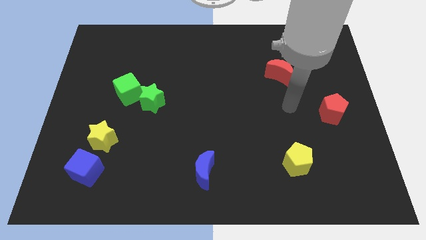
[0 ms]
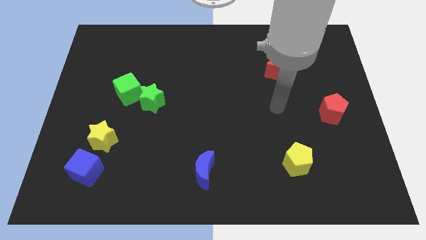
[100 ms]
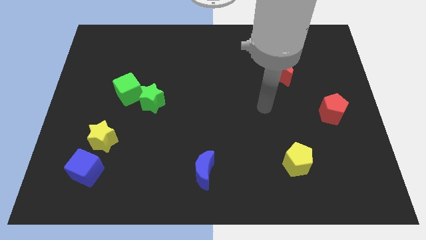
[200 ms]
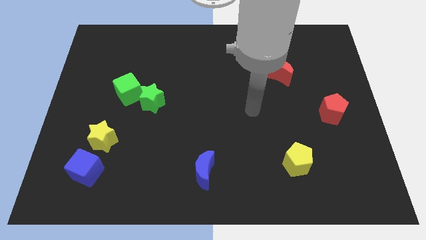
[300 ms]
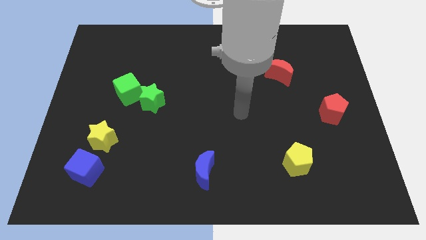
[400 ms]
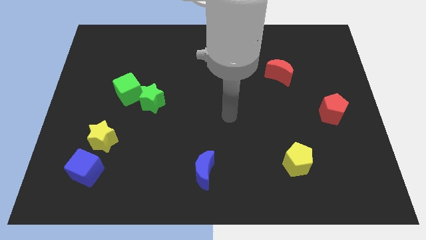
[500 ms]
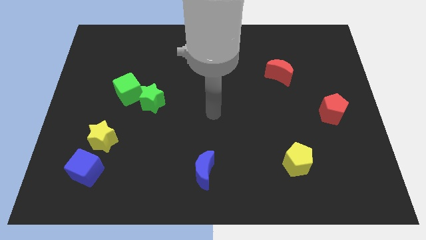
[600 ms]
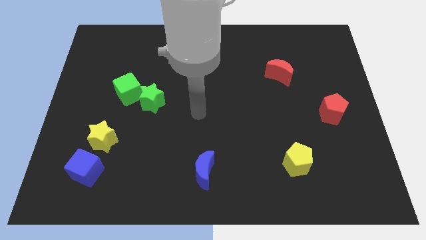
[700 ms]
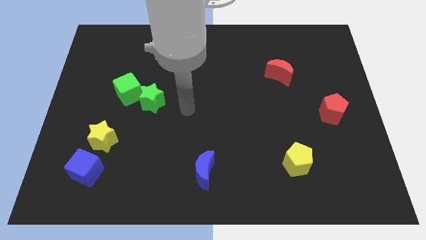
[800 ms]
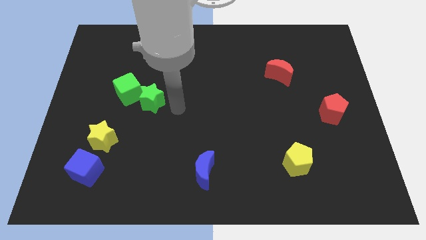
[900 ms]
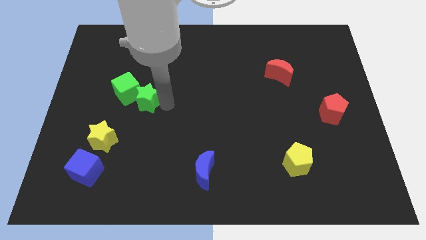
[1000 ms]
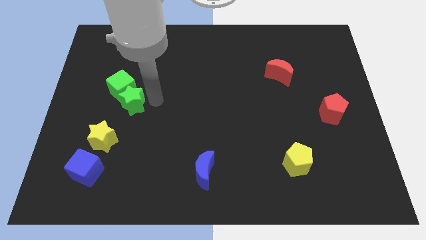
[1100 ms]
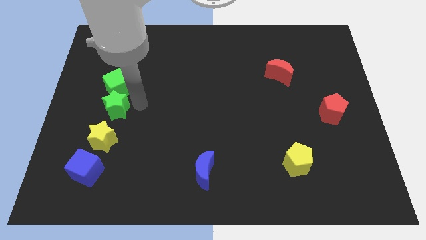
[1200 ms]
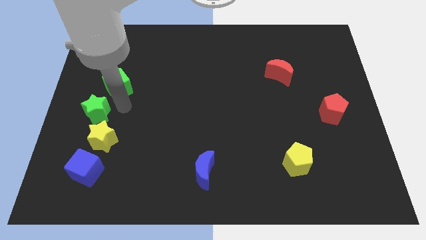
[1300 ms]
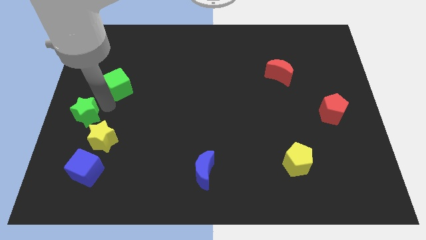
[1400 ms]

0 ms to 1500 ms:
move the green cube away from the green star

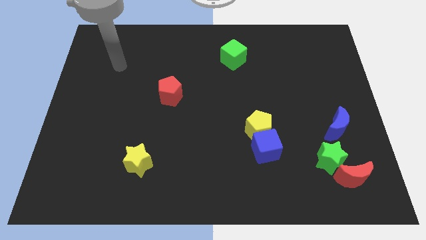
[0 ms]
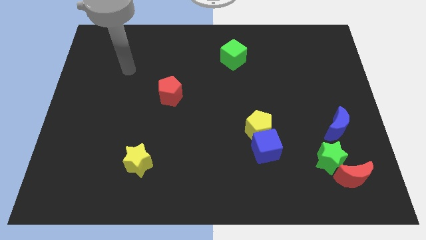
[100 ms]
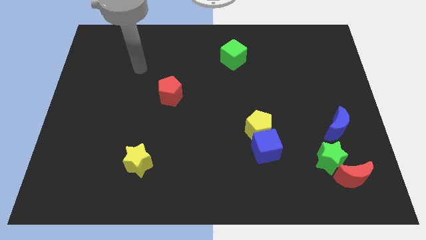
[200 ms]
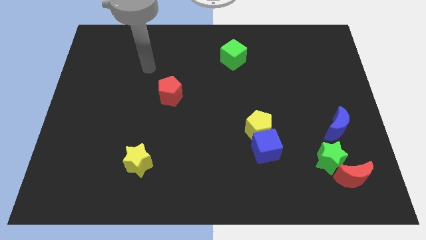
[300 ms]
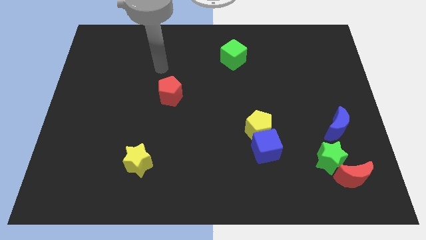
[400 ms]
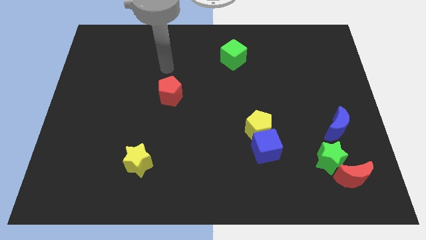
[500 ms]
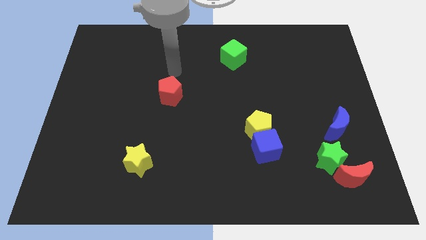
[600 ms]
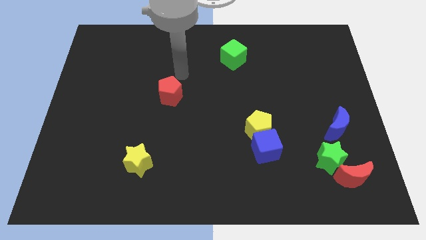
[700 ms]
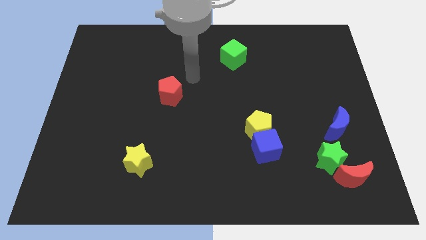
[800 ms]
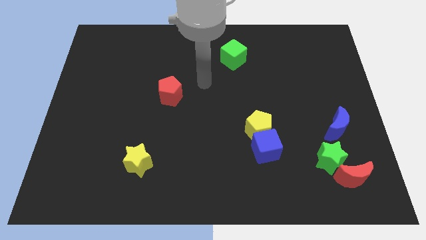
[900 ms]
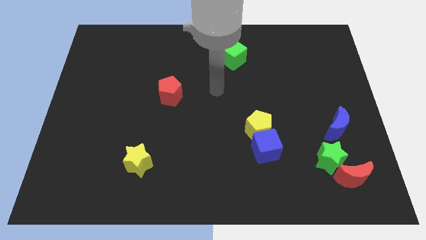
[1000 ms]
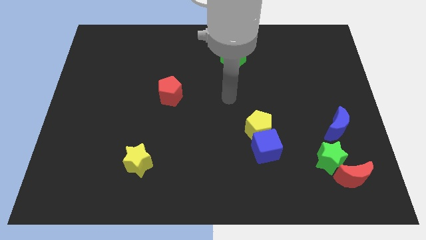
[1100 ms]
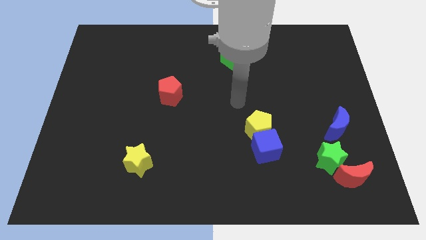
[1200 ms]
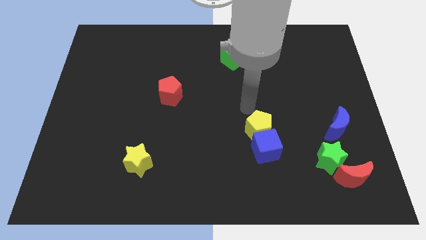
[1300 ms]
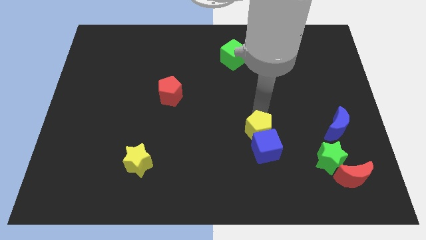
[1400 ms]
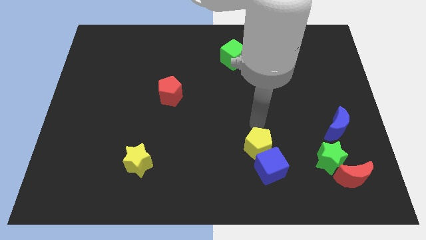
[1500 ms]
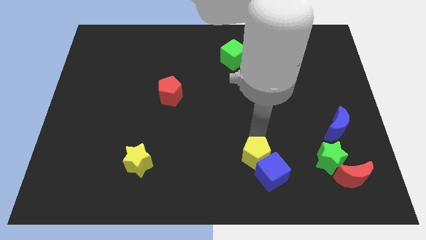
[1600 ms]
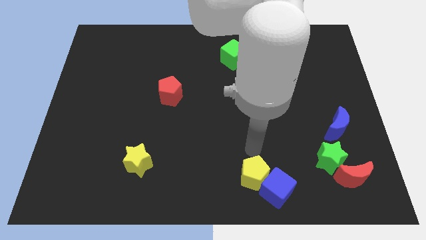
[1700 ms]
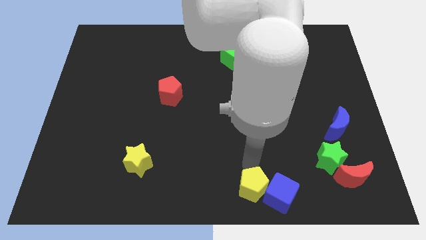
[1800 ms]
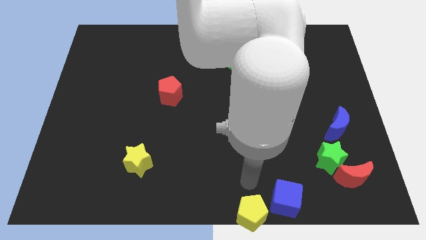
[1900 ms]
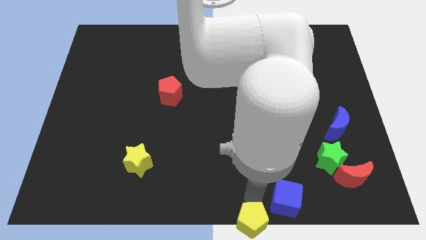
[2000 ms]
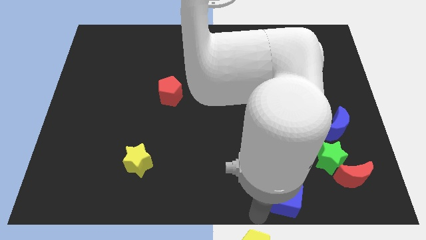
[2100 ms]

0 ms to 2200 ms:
move the blue cube away from the yellow pentagon

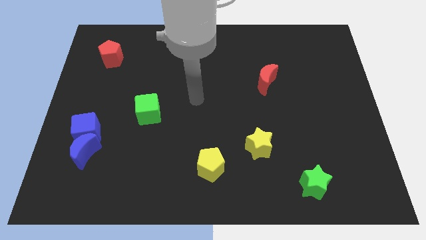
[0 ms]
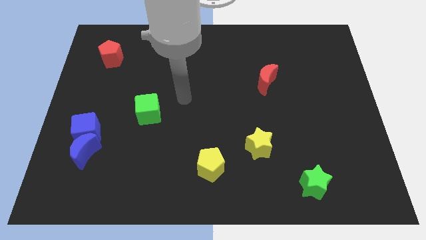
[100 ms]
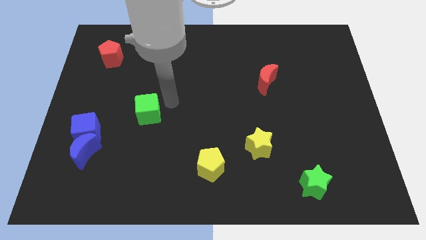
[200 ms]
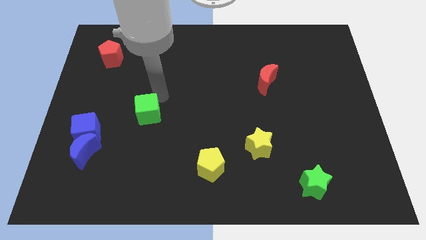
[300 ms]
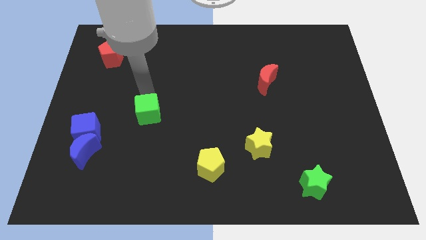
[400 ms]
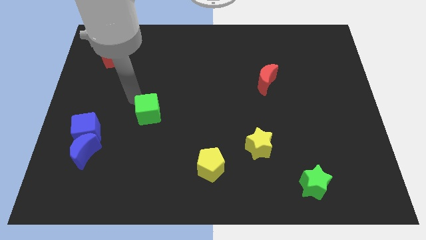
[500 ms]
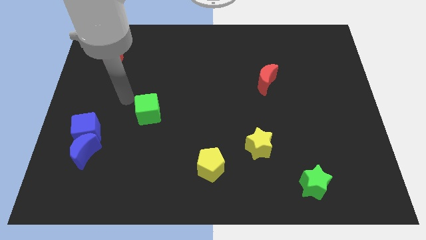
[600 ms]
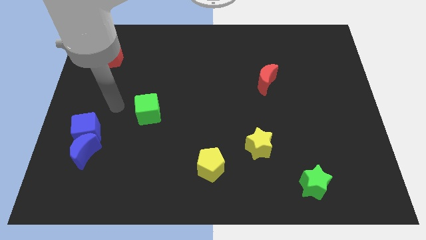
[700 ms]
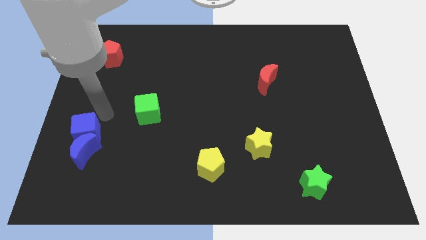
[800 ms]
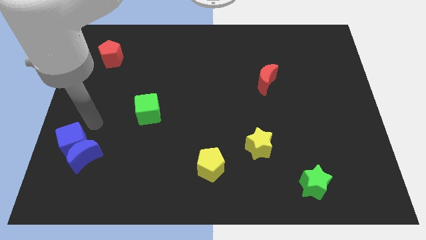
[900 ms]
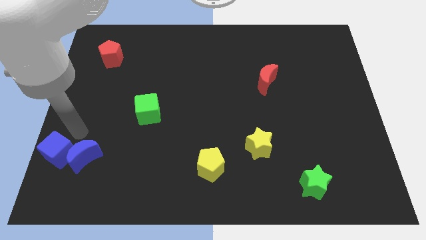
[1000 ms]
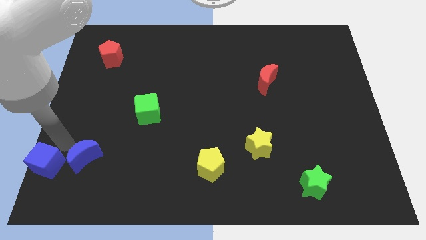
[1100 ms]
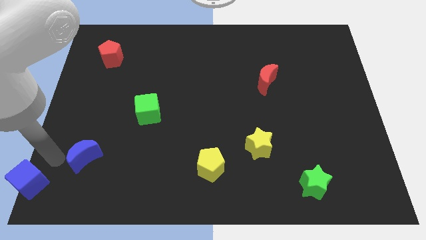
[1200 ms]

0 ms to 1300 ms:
pull the blue moon apart from the blue cube

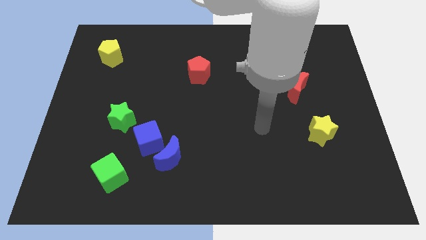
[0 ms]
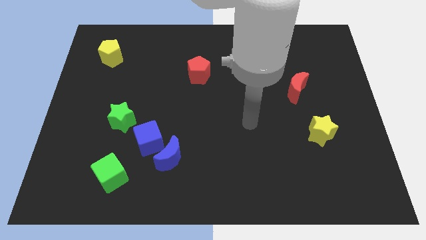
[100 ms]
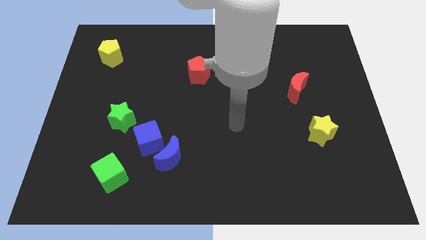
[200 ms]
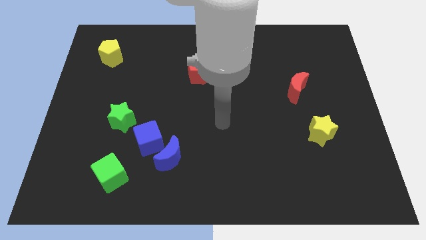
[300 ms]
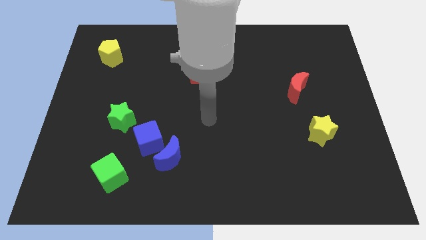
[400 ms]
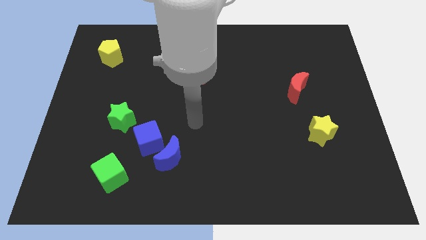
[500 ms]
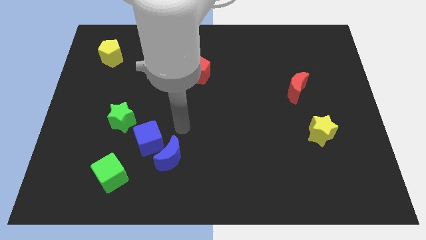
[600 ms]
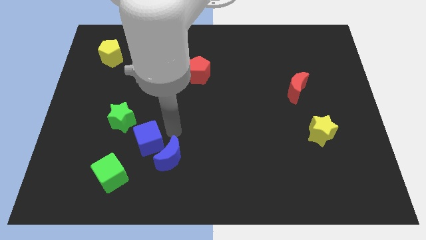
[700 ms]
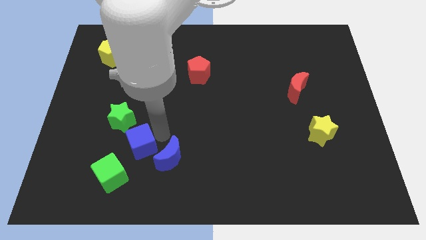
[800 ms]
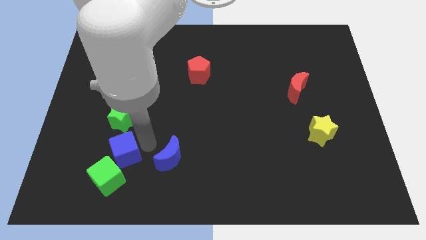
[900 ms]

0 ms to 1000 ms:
move the blue moon away from the blue cube

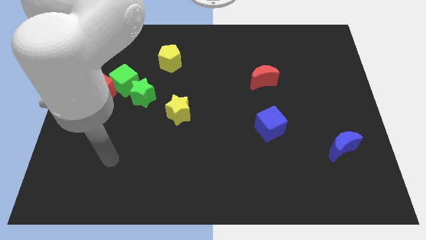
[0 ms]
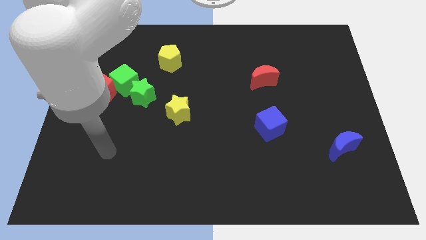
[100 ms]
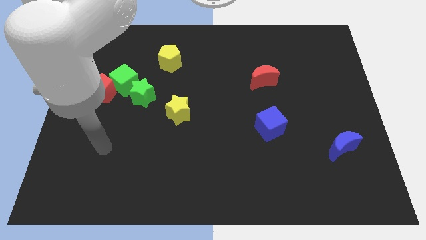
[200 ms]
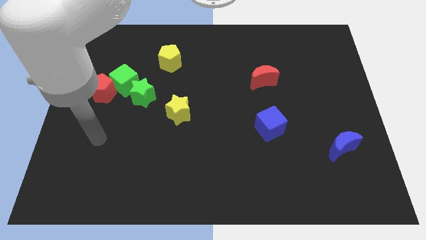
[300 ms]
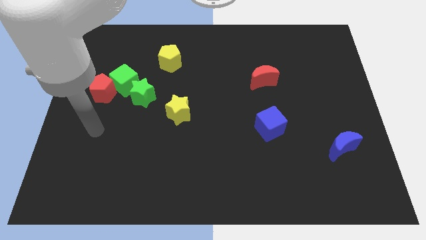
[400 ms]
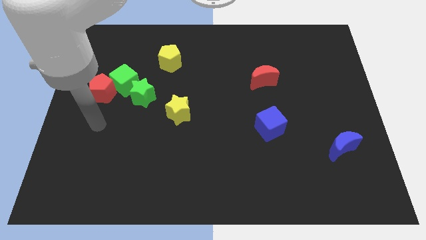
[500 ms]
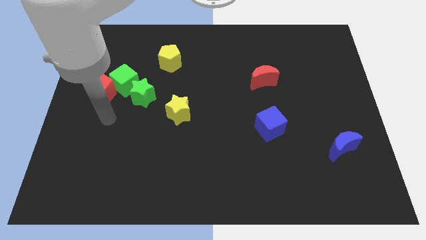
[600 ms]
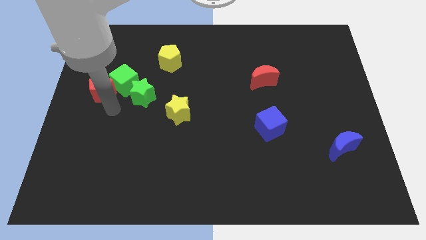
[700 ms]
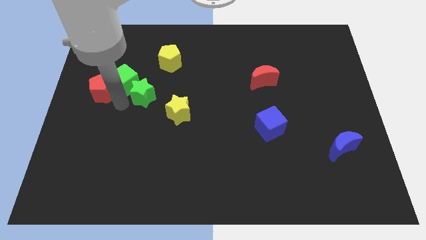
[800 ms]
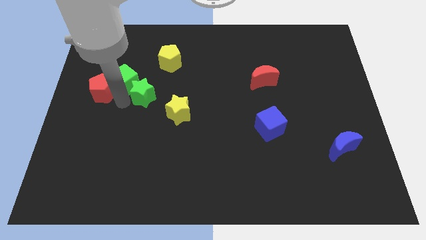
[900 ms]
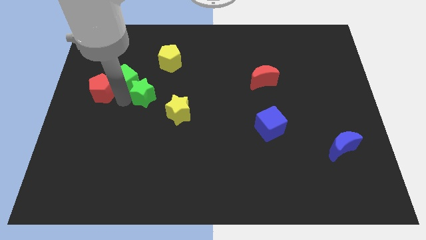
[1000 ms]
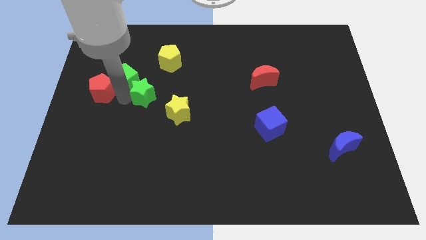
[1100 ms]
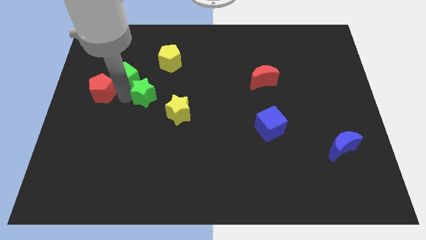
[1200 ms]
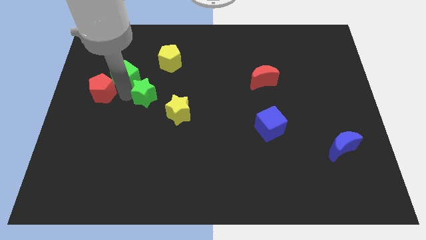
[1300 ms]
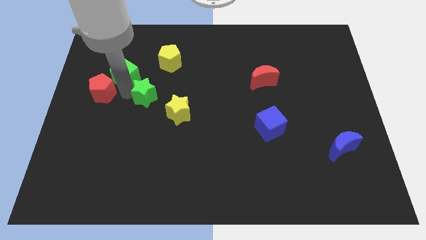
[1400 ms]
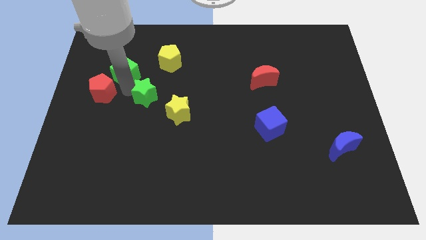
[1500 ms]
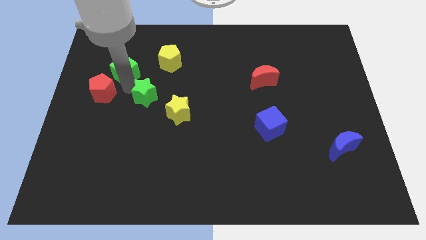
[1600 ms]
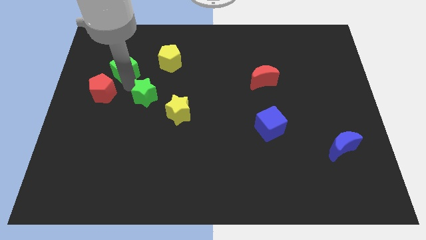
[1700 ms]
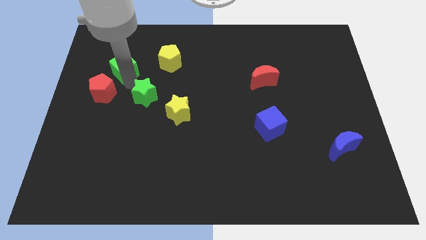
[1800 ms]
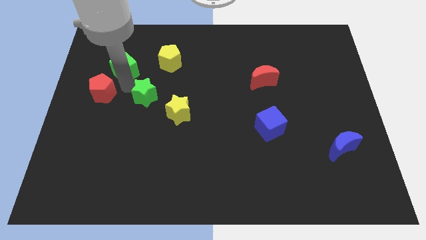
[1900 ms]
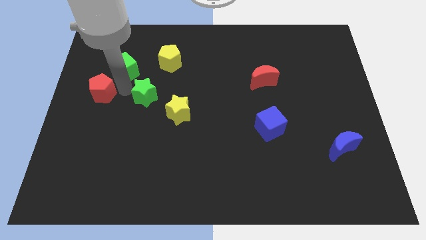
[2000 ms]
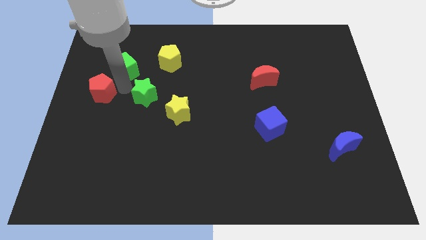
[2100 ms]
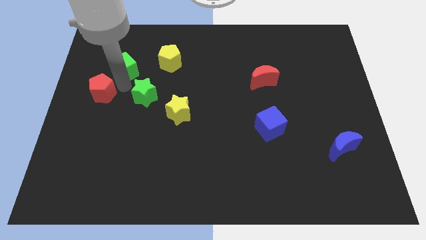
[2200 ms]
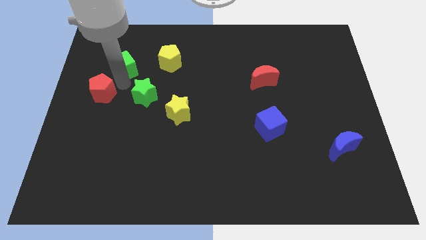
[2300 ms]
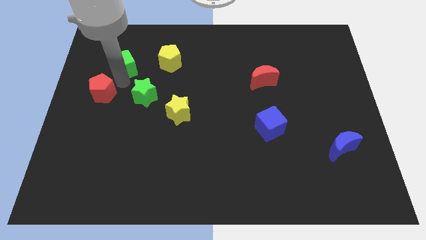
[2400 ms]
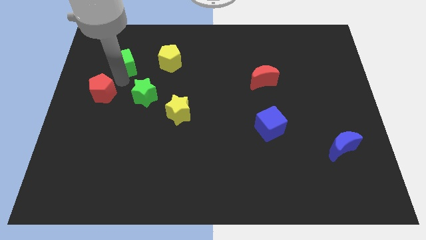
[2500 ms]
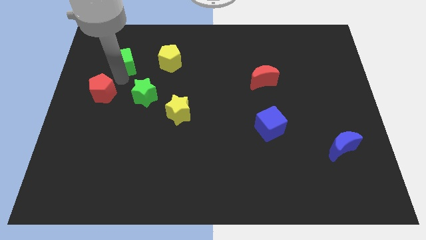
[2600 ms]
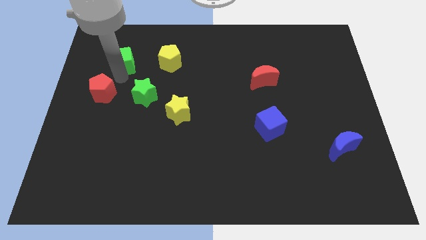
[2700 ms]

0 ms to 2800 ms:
pull the green cube apart from the red pentagon and green star

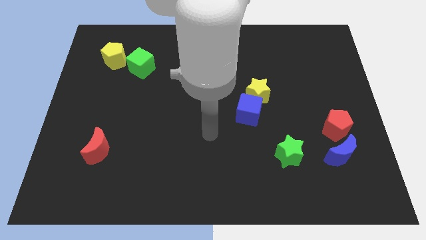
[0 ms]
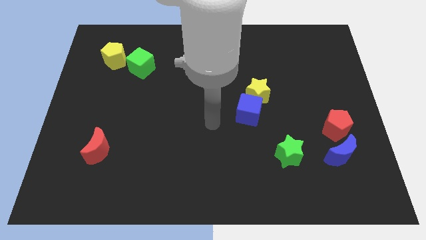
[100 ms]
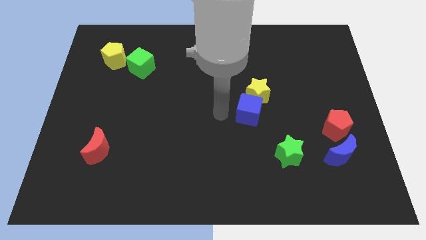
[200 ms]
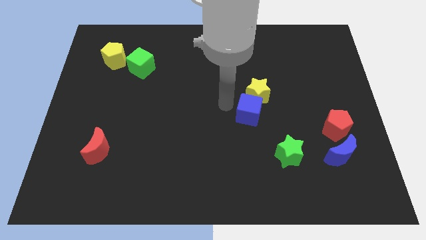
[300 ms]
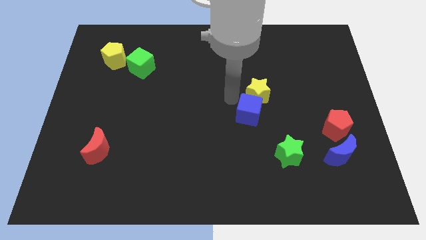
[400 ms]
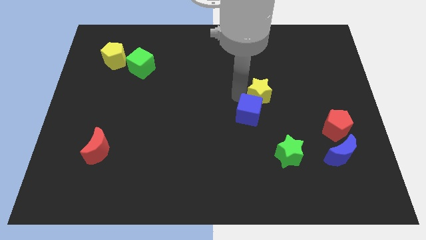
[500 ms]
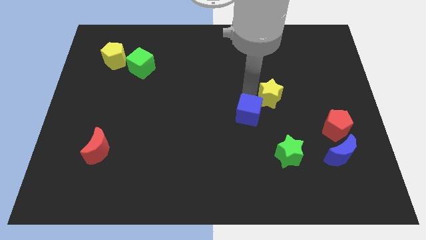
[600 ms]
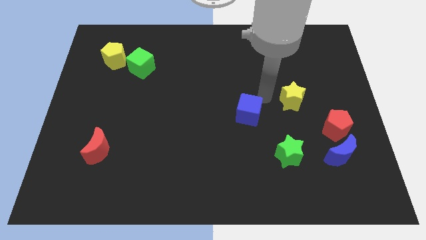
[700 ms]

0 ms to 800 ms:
move the blue cube away from the yellow star
